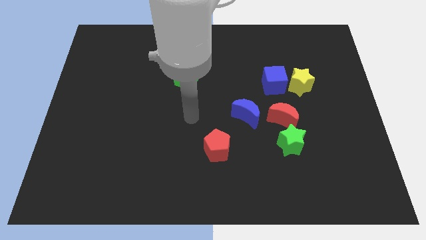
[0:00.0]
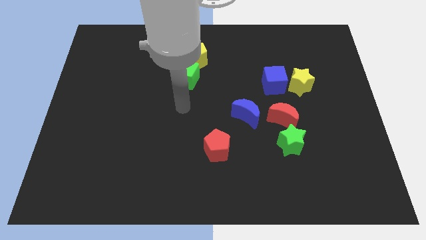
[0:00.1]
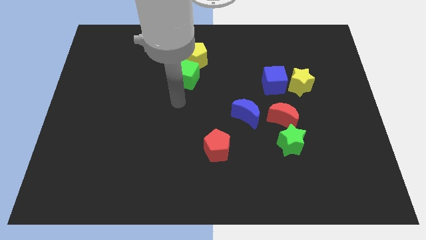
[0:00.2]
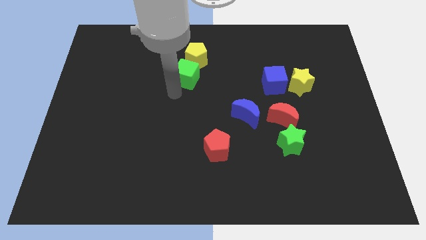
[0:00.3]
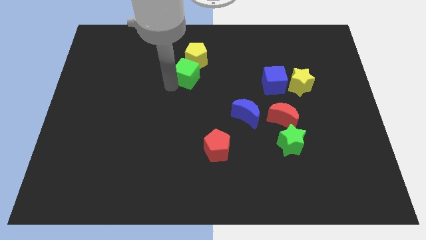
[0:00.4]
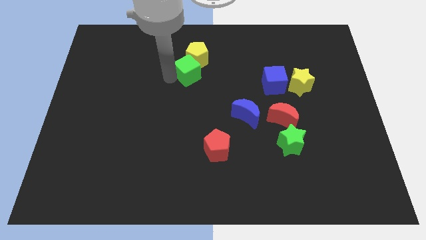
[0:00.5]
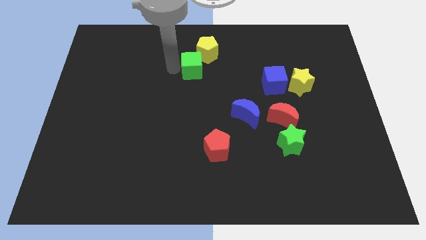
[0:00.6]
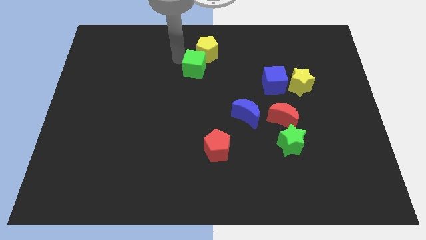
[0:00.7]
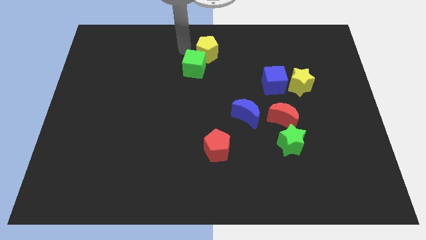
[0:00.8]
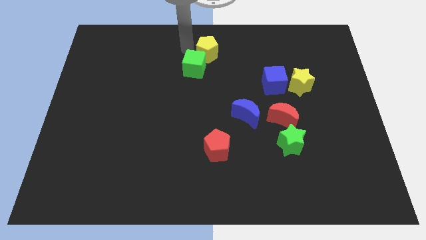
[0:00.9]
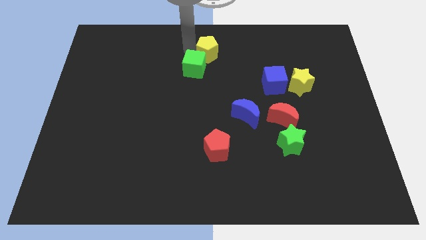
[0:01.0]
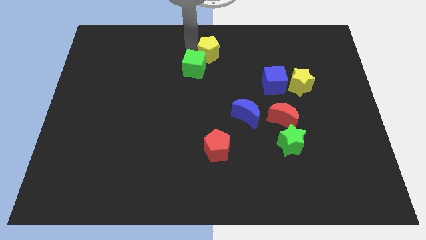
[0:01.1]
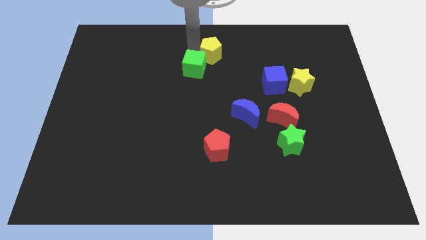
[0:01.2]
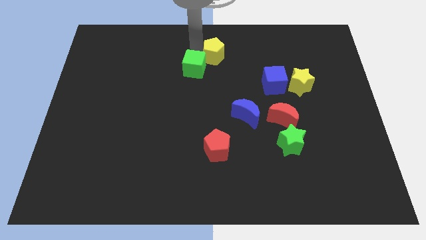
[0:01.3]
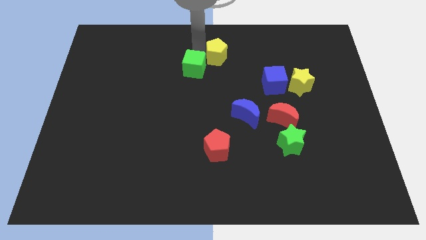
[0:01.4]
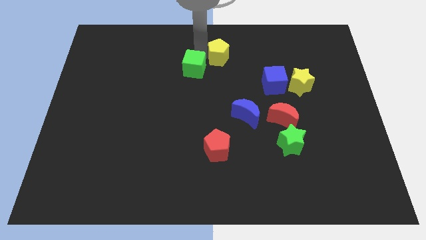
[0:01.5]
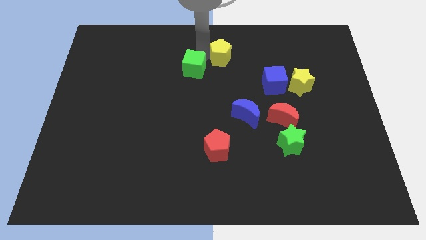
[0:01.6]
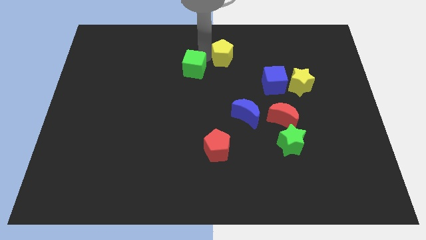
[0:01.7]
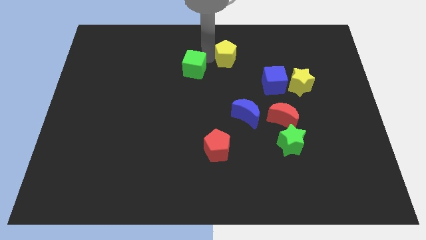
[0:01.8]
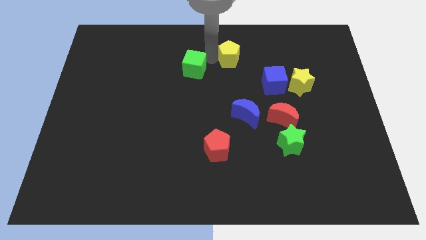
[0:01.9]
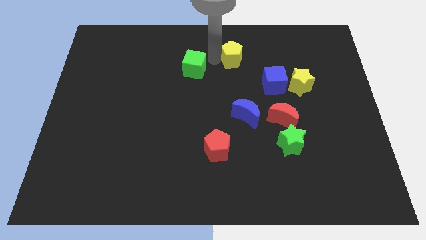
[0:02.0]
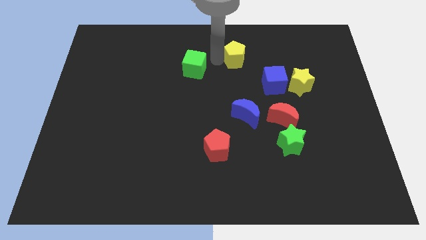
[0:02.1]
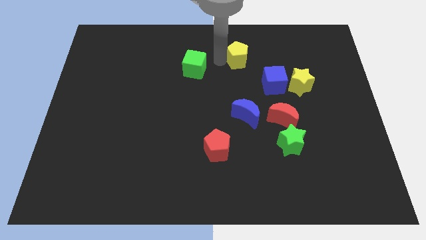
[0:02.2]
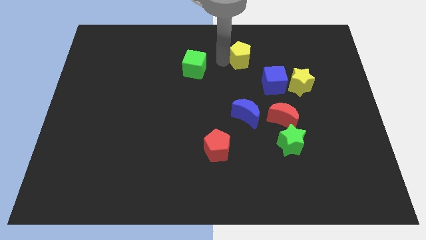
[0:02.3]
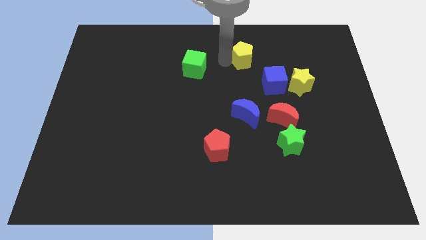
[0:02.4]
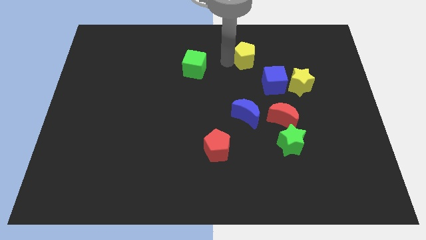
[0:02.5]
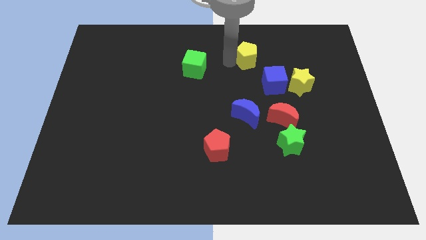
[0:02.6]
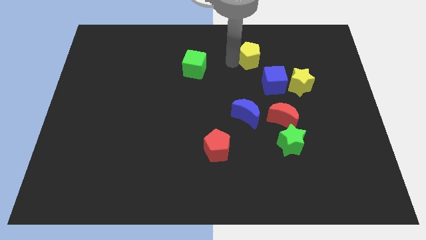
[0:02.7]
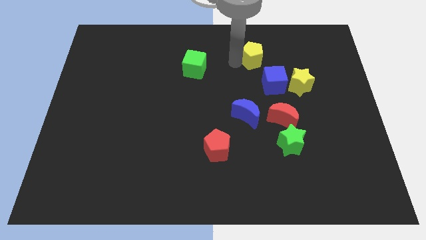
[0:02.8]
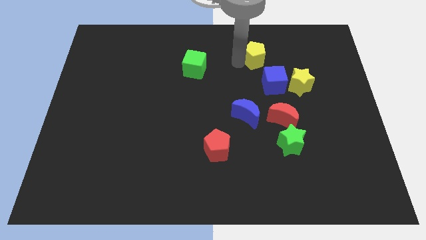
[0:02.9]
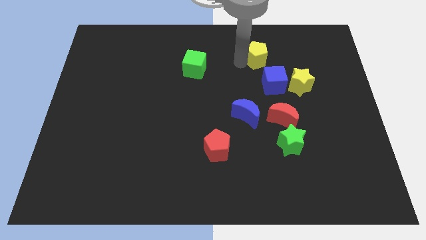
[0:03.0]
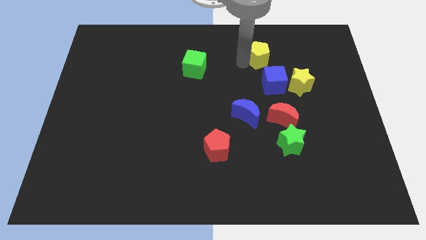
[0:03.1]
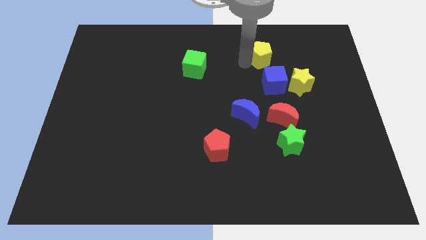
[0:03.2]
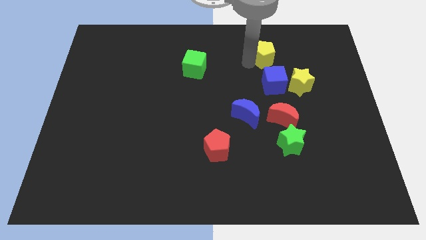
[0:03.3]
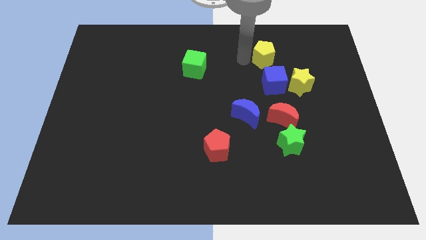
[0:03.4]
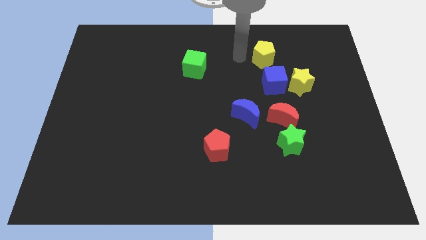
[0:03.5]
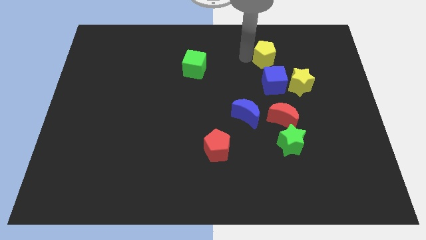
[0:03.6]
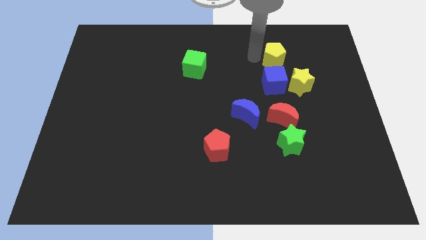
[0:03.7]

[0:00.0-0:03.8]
push the yellow pentagon to the right

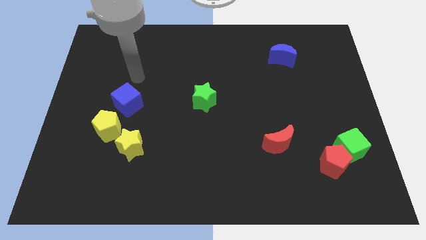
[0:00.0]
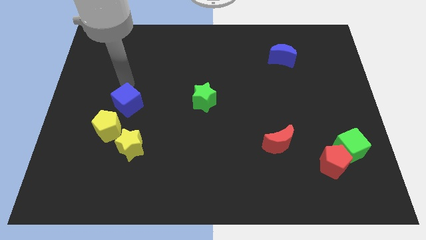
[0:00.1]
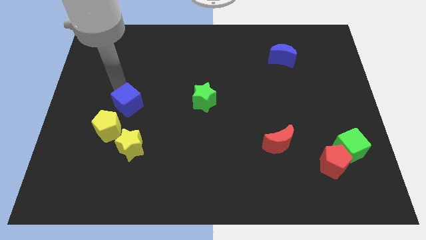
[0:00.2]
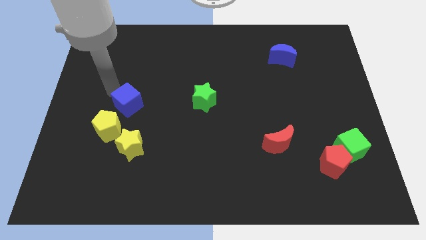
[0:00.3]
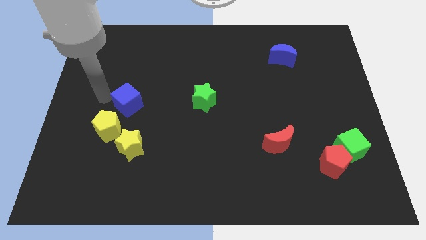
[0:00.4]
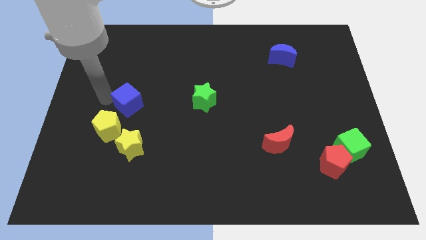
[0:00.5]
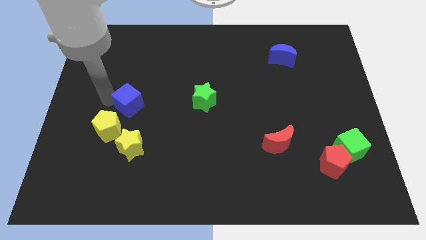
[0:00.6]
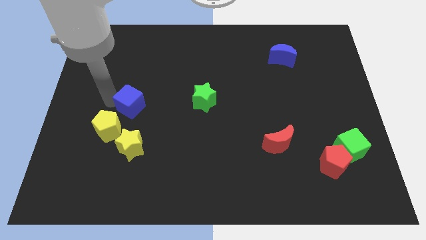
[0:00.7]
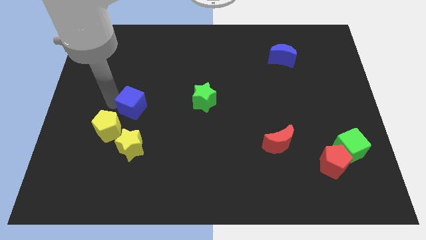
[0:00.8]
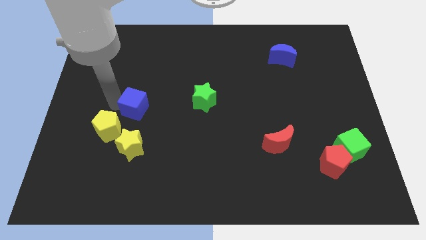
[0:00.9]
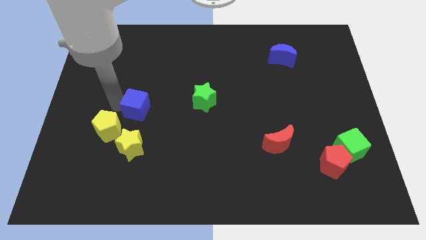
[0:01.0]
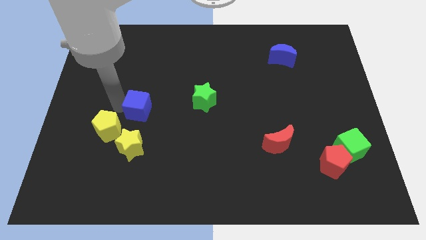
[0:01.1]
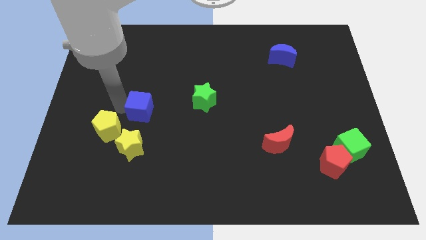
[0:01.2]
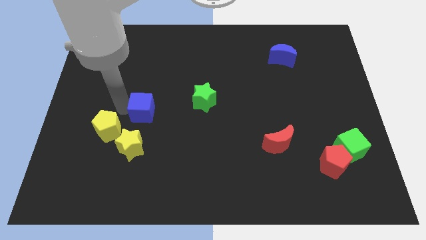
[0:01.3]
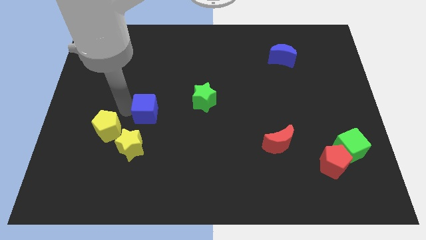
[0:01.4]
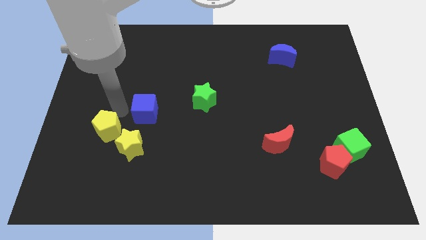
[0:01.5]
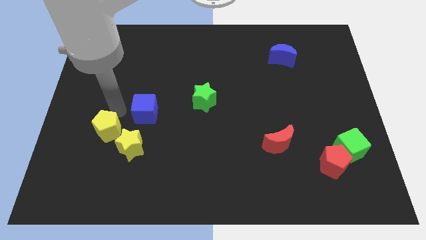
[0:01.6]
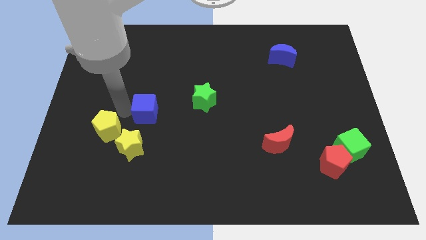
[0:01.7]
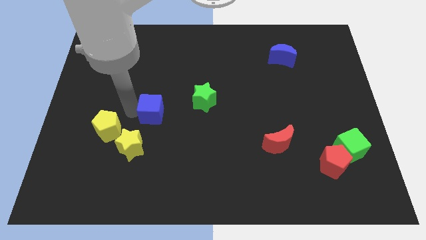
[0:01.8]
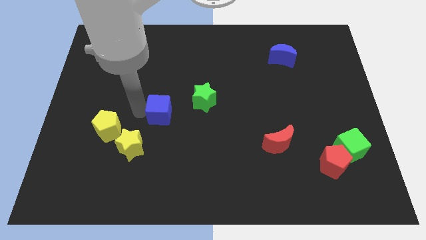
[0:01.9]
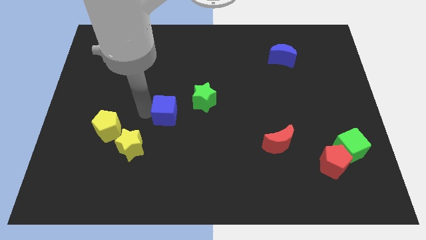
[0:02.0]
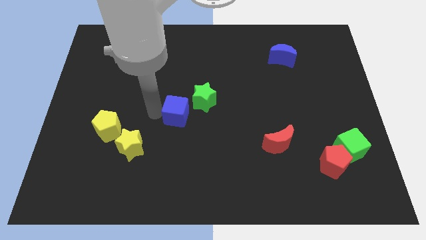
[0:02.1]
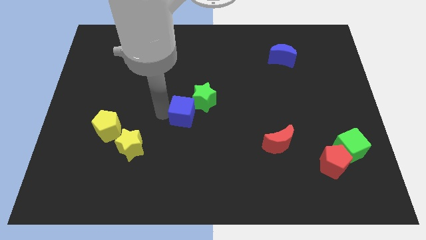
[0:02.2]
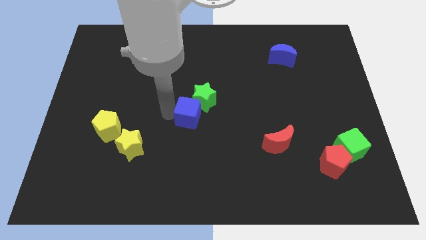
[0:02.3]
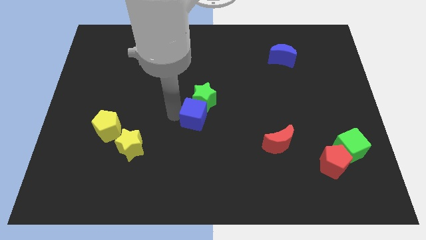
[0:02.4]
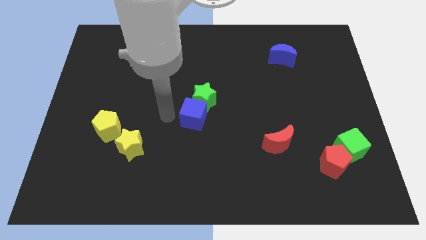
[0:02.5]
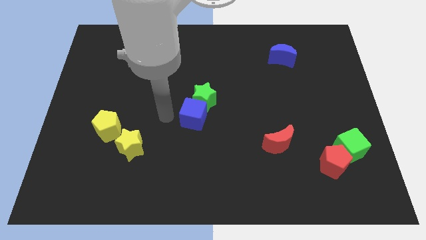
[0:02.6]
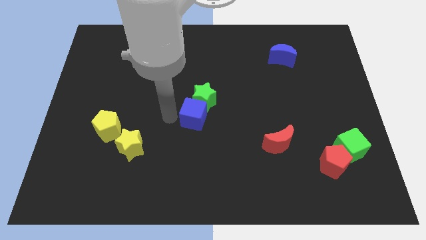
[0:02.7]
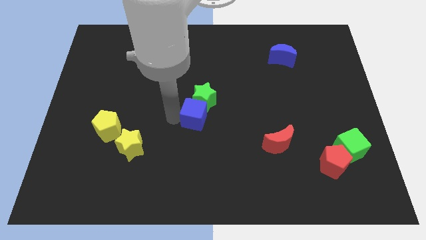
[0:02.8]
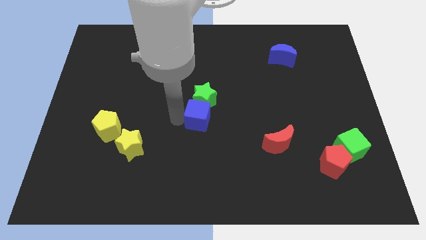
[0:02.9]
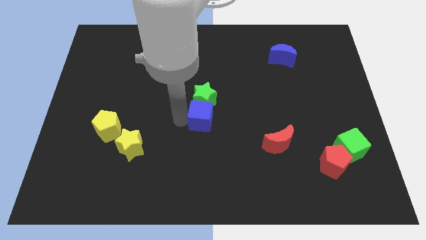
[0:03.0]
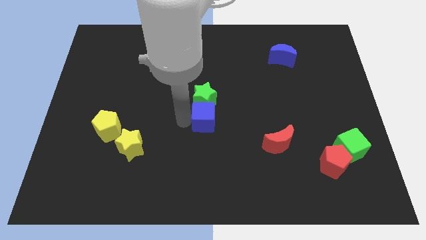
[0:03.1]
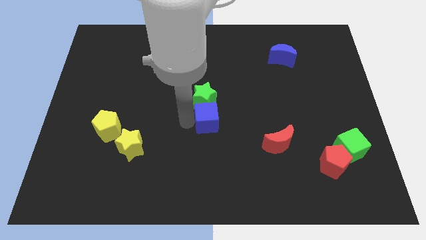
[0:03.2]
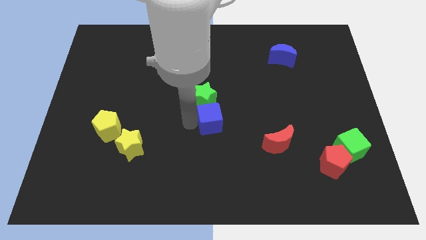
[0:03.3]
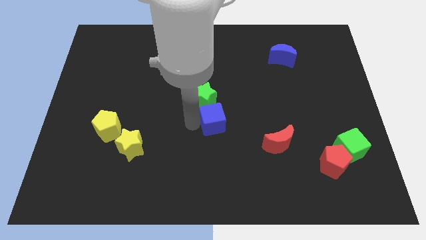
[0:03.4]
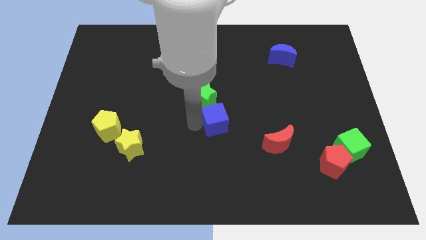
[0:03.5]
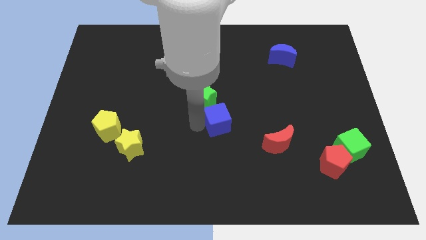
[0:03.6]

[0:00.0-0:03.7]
push the blue cube to the right

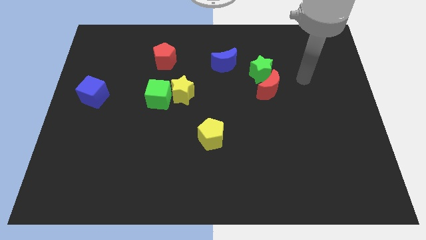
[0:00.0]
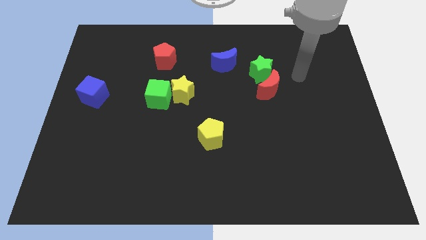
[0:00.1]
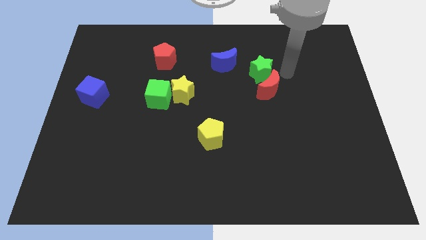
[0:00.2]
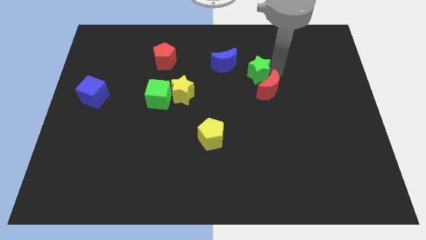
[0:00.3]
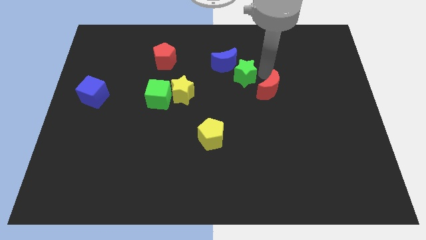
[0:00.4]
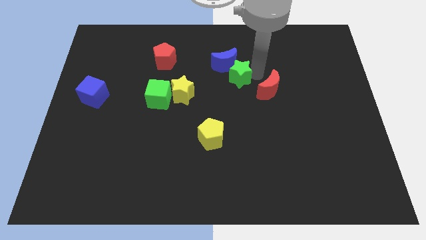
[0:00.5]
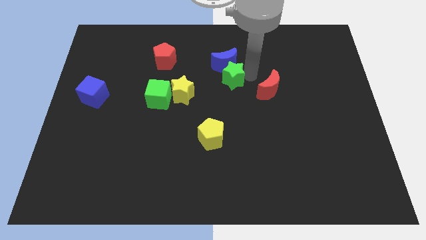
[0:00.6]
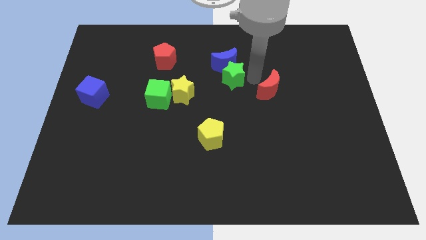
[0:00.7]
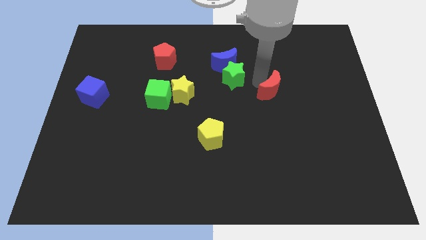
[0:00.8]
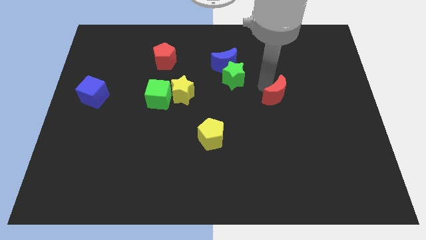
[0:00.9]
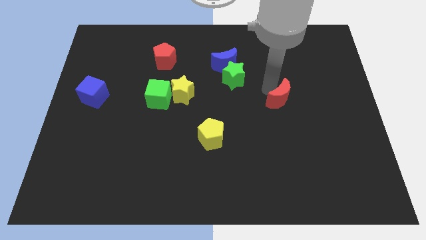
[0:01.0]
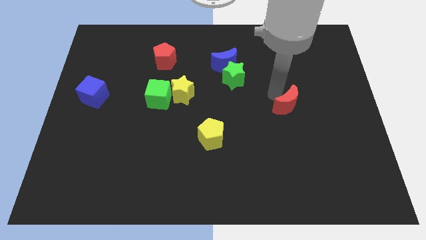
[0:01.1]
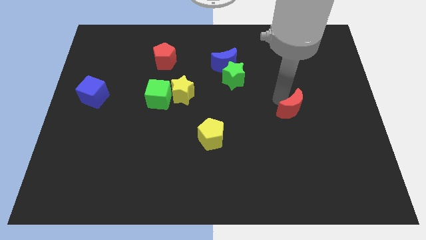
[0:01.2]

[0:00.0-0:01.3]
slightly slide the red moon down and then to the right
